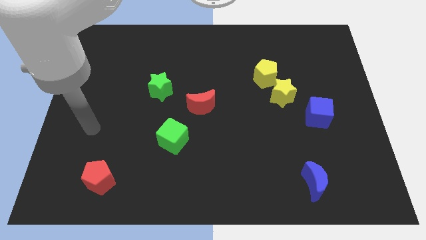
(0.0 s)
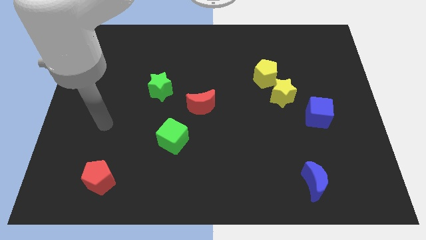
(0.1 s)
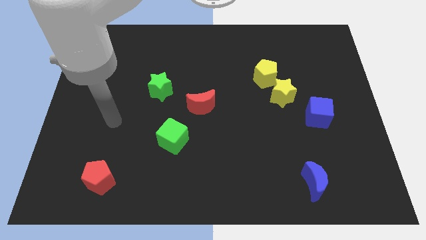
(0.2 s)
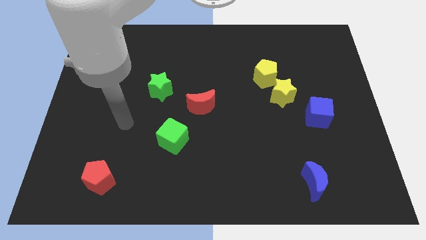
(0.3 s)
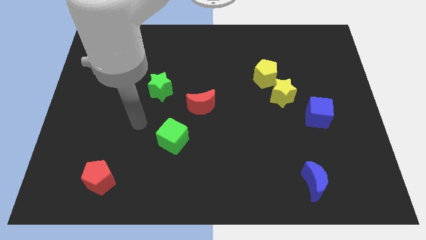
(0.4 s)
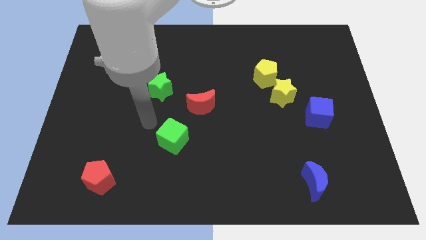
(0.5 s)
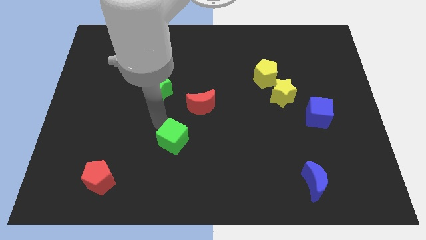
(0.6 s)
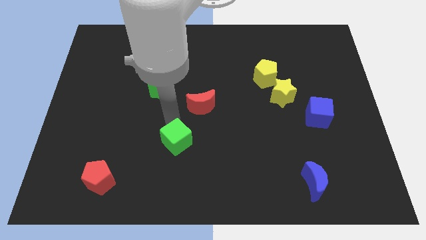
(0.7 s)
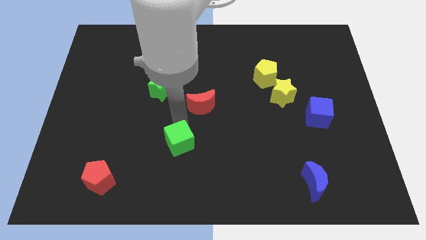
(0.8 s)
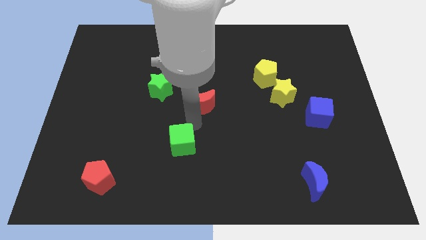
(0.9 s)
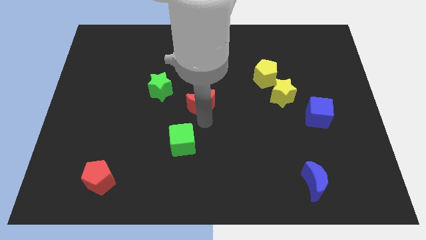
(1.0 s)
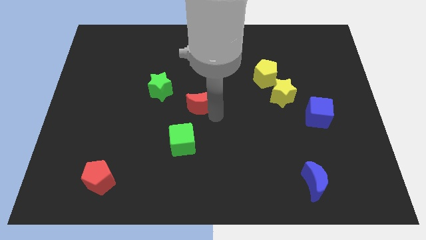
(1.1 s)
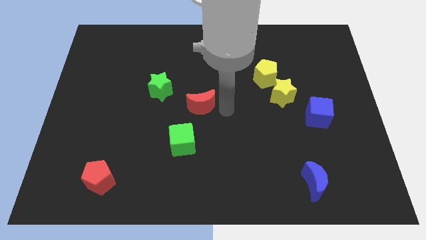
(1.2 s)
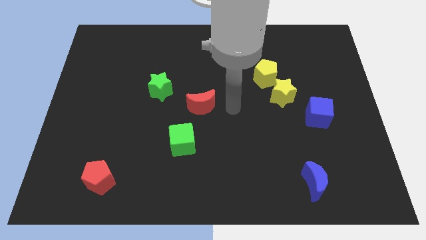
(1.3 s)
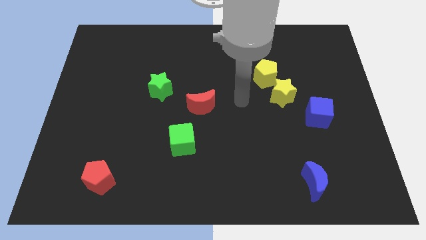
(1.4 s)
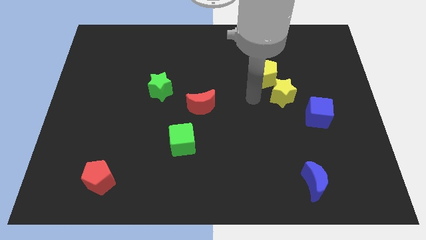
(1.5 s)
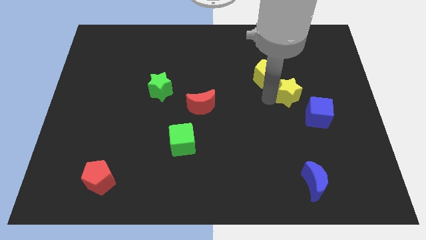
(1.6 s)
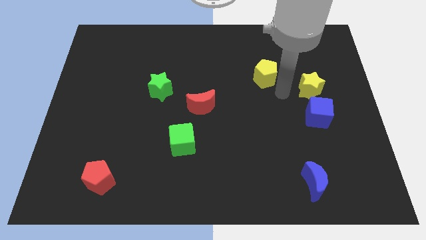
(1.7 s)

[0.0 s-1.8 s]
move the yellow pentagon away from the yellow star

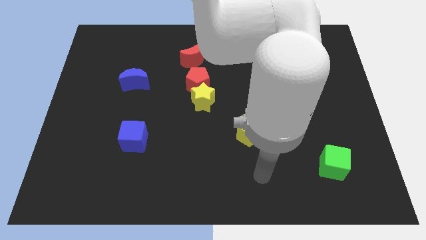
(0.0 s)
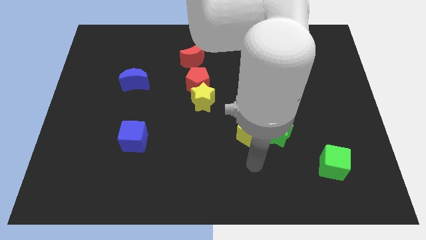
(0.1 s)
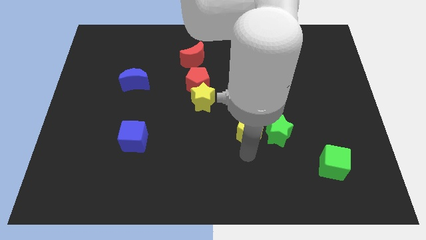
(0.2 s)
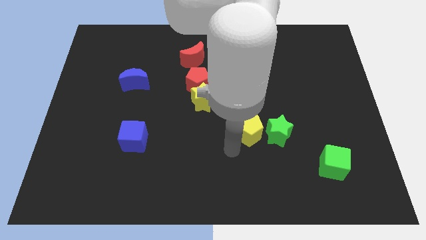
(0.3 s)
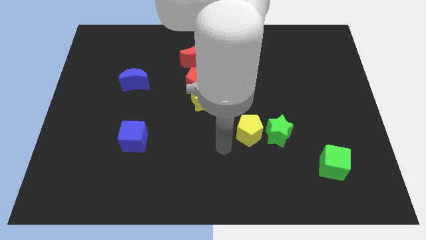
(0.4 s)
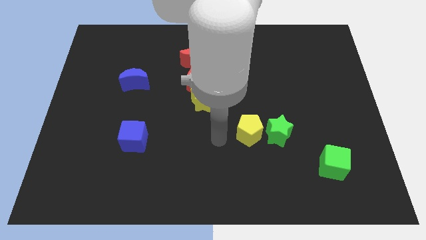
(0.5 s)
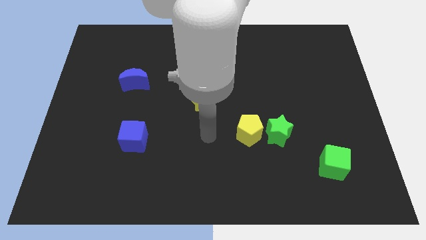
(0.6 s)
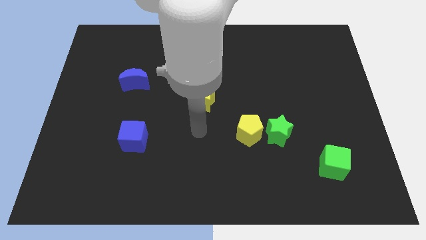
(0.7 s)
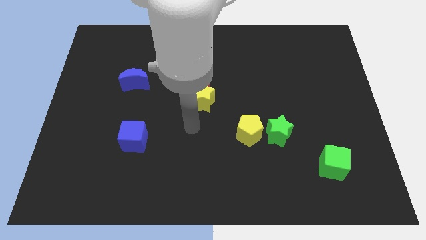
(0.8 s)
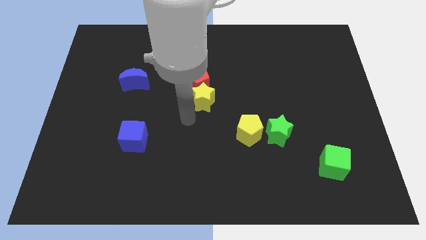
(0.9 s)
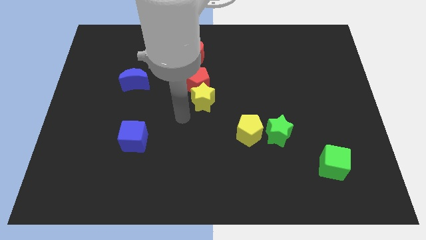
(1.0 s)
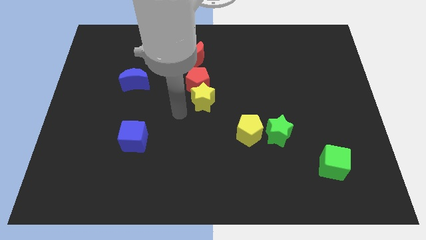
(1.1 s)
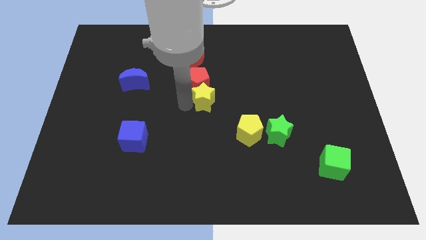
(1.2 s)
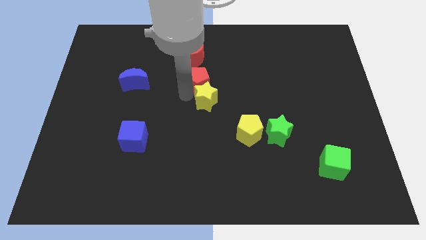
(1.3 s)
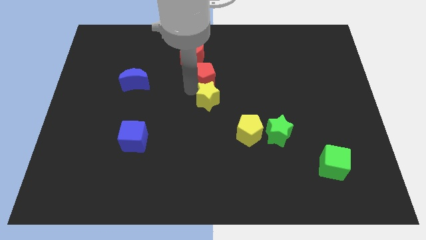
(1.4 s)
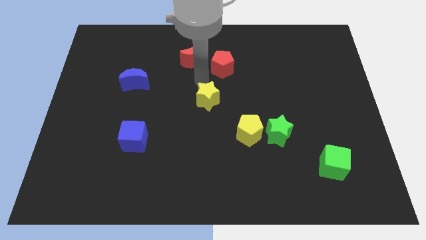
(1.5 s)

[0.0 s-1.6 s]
move the yellow star away from the red pentagon

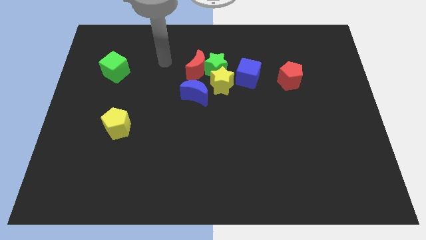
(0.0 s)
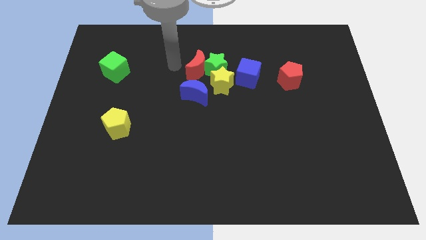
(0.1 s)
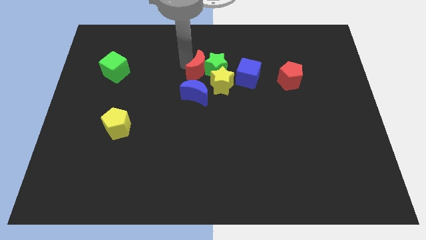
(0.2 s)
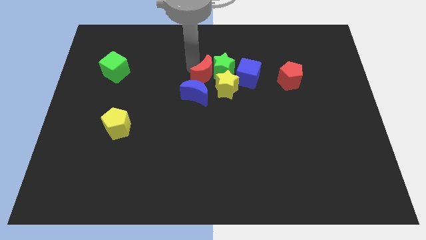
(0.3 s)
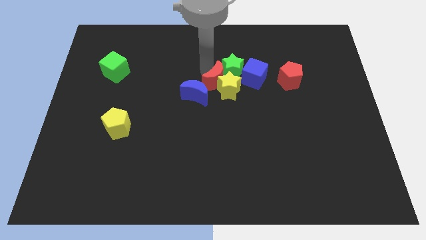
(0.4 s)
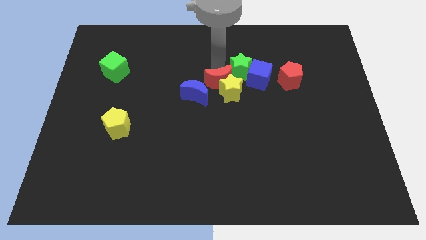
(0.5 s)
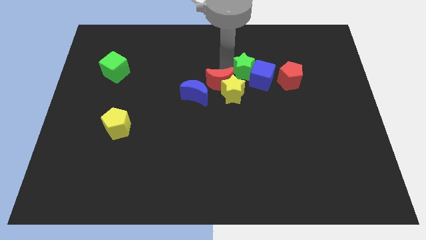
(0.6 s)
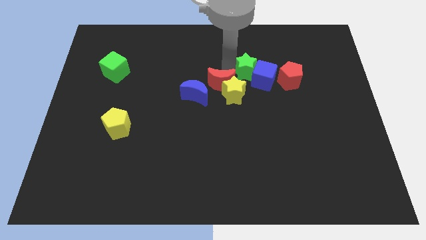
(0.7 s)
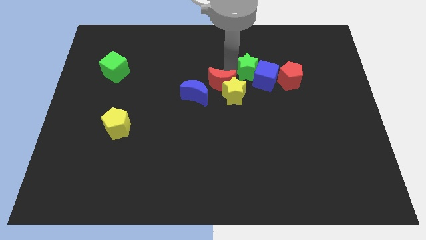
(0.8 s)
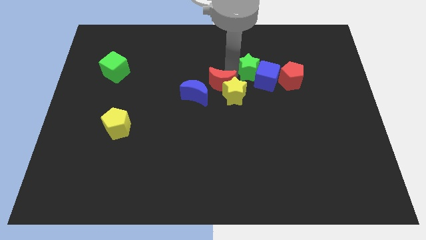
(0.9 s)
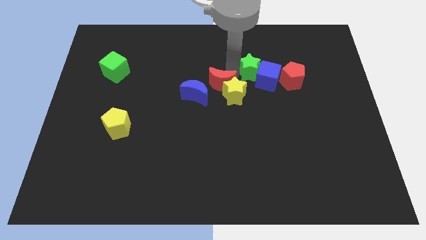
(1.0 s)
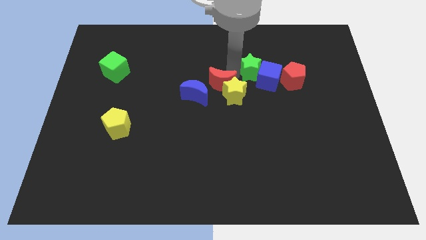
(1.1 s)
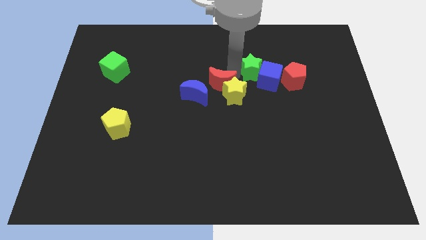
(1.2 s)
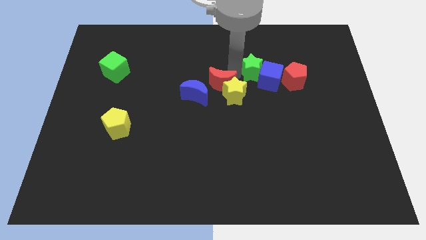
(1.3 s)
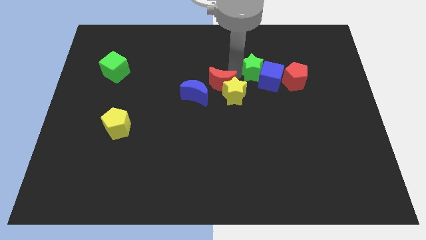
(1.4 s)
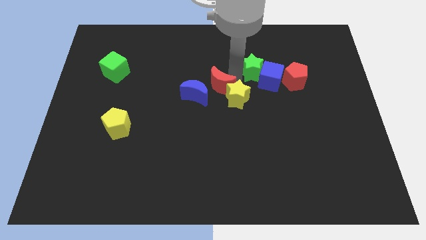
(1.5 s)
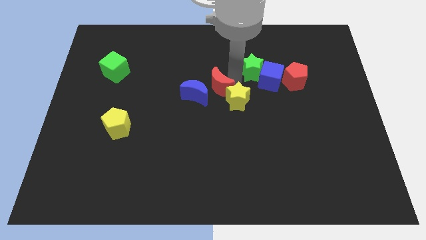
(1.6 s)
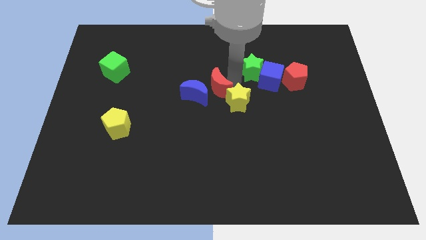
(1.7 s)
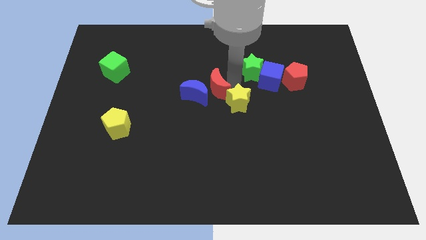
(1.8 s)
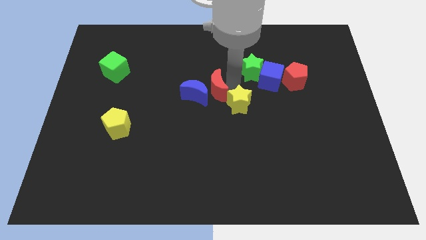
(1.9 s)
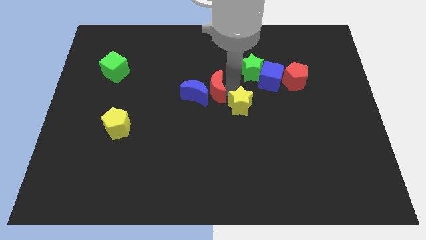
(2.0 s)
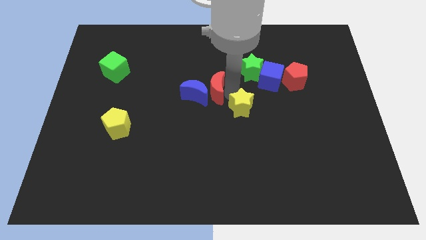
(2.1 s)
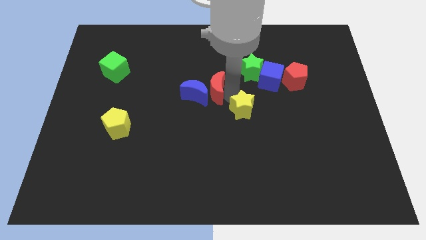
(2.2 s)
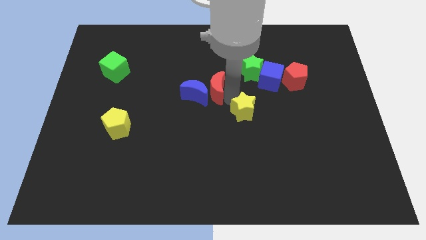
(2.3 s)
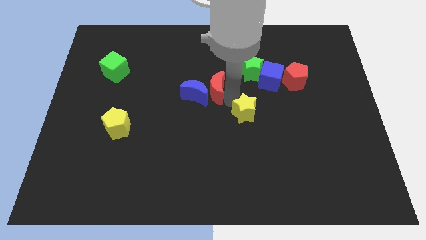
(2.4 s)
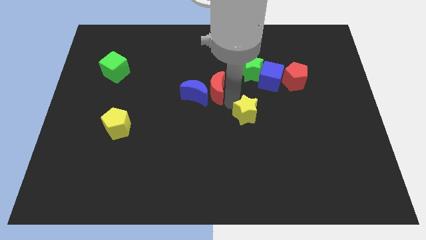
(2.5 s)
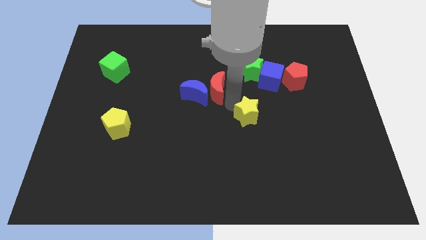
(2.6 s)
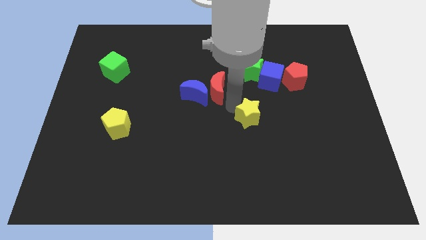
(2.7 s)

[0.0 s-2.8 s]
pull the yellow star apart from the group of blocks

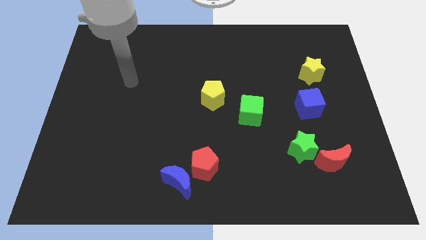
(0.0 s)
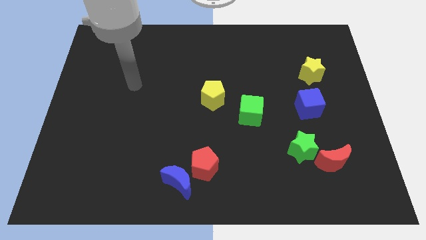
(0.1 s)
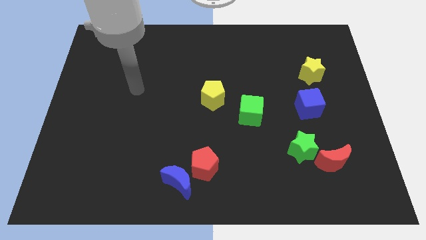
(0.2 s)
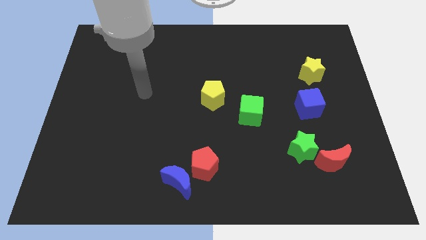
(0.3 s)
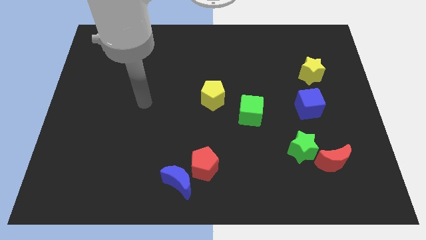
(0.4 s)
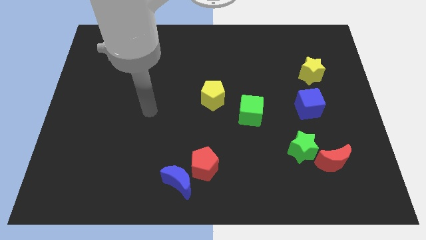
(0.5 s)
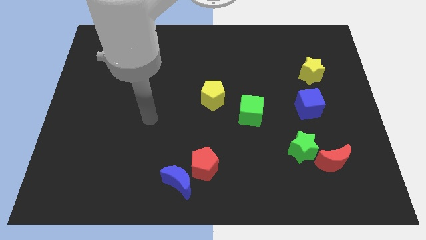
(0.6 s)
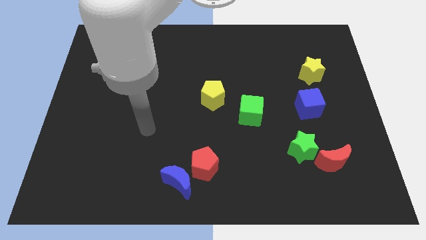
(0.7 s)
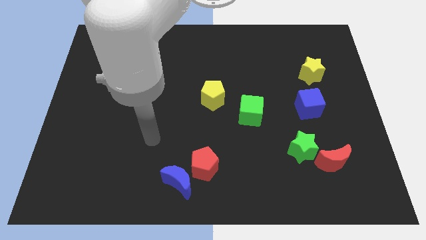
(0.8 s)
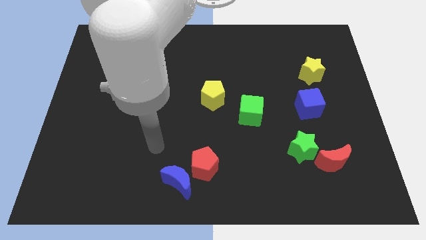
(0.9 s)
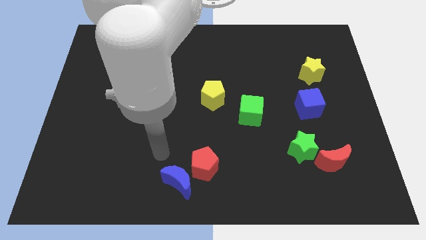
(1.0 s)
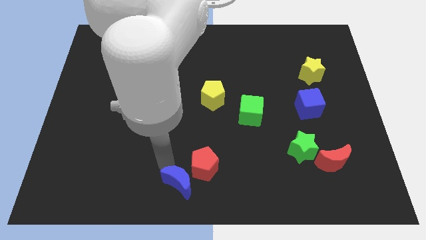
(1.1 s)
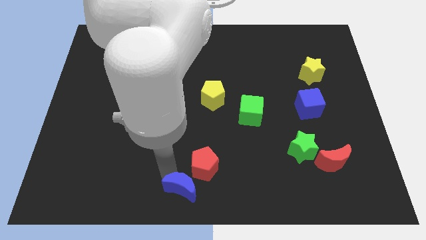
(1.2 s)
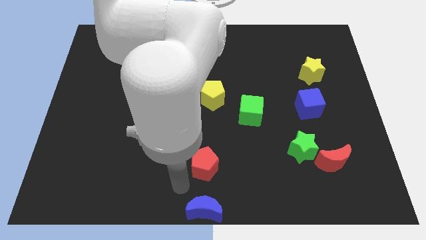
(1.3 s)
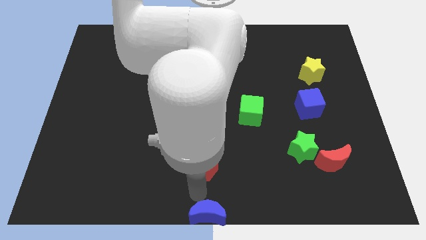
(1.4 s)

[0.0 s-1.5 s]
separate the red pentagon from the blue moon

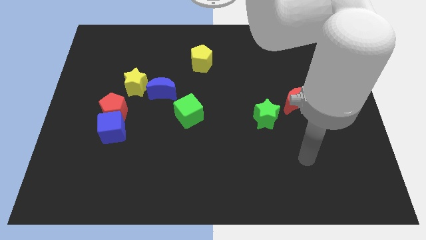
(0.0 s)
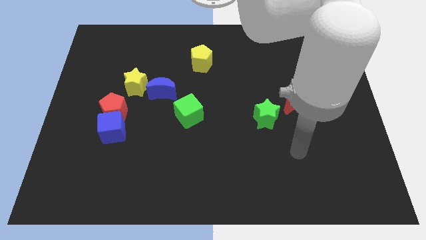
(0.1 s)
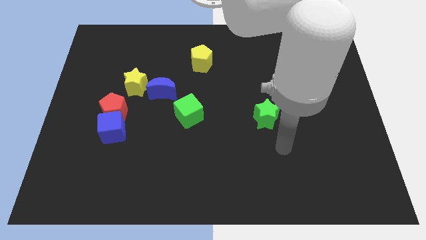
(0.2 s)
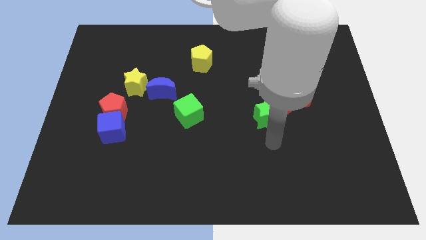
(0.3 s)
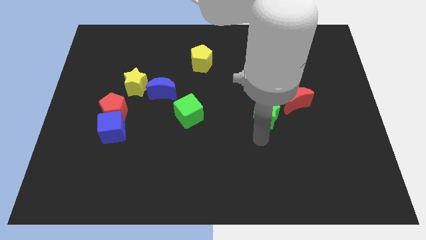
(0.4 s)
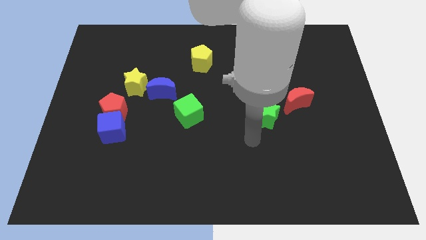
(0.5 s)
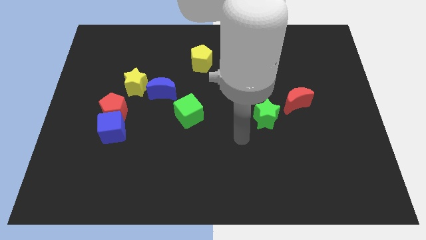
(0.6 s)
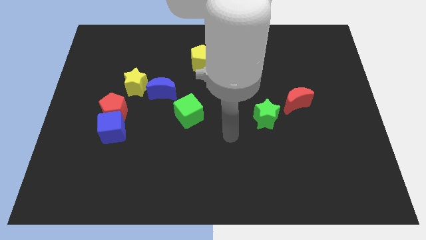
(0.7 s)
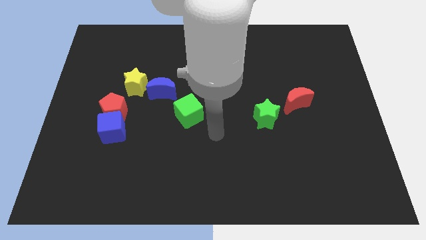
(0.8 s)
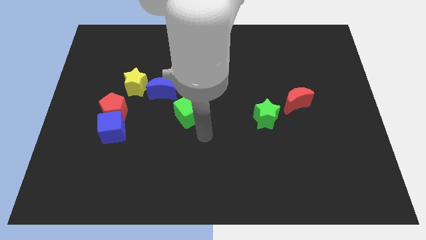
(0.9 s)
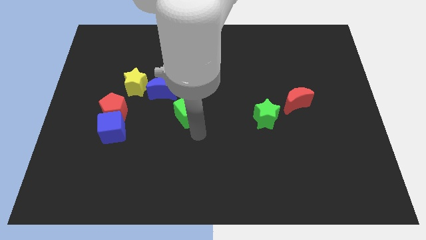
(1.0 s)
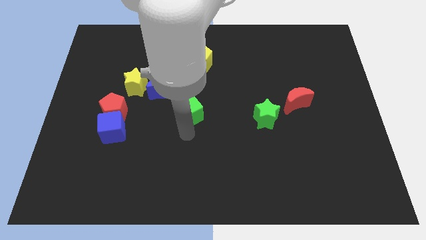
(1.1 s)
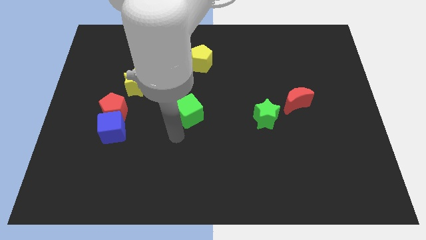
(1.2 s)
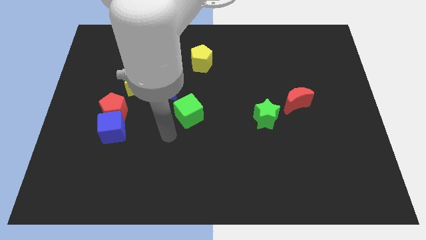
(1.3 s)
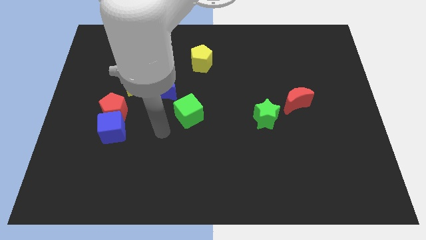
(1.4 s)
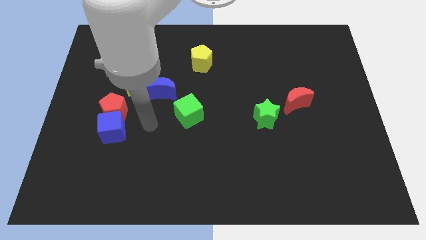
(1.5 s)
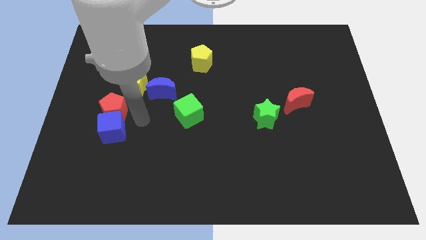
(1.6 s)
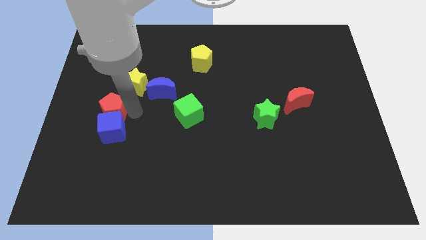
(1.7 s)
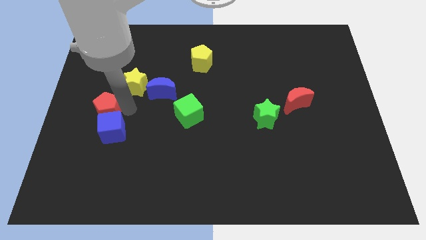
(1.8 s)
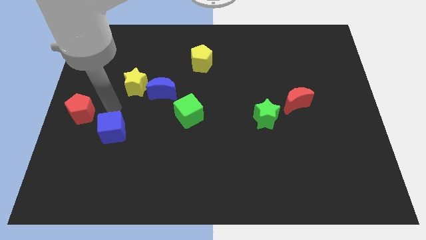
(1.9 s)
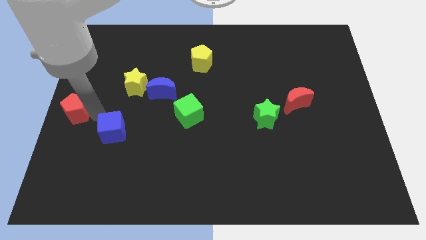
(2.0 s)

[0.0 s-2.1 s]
move the blue cube away from the red pentagon
